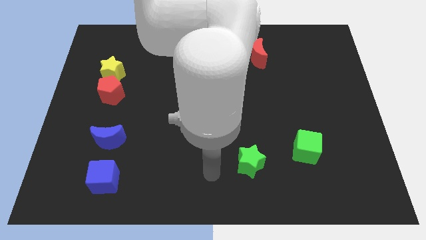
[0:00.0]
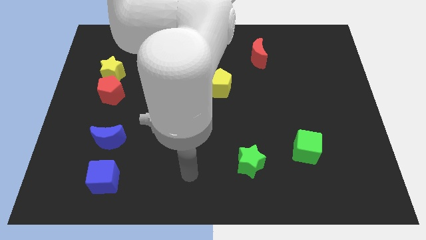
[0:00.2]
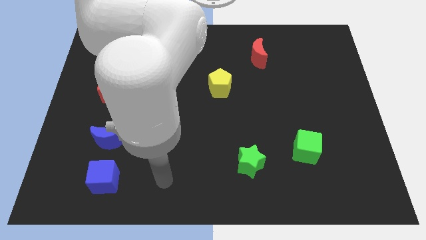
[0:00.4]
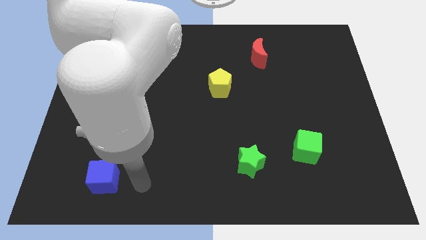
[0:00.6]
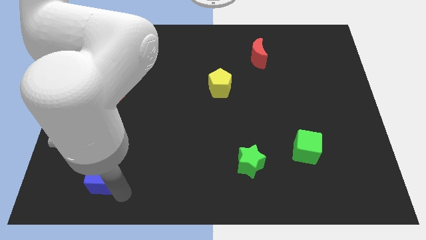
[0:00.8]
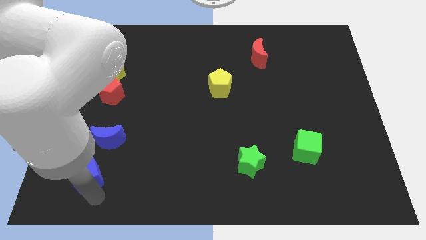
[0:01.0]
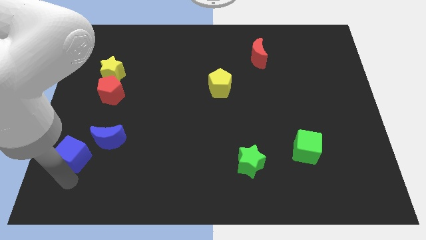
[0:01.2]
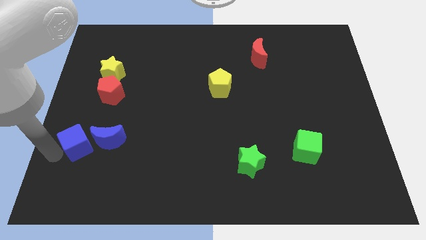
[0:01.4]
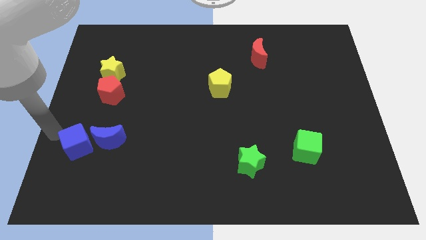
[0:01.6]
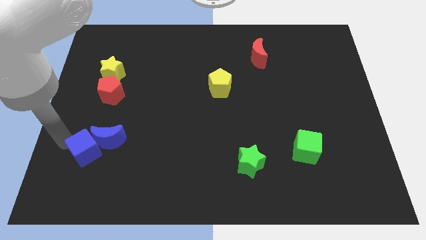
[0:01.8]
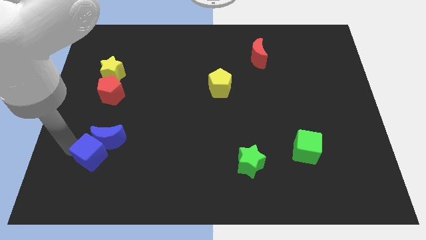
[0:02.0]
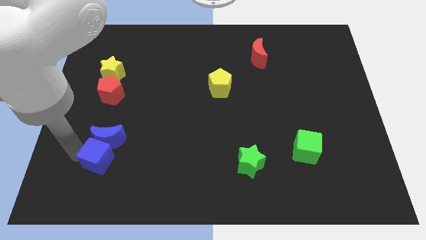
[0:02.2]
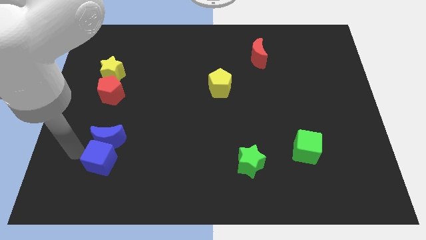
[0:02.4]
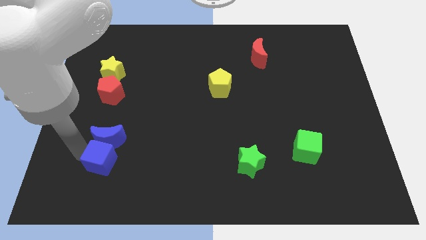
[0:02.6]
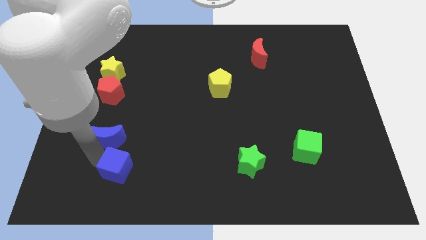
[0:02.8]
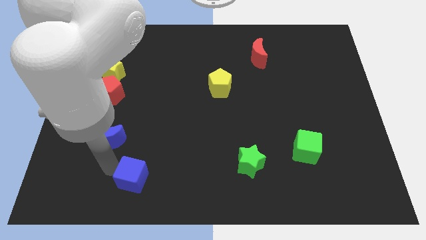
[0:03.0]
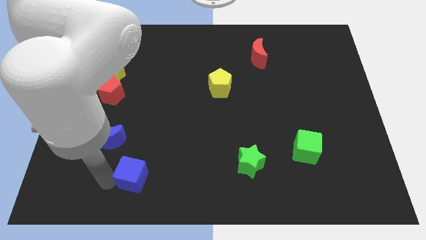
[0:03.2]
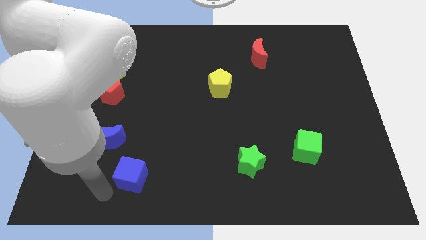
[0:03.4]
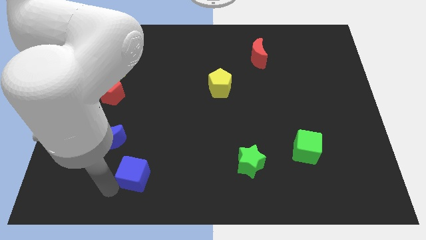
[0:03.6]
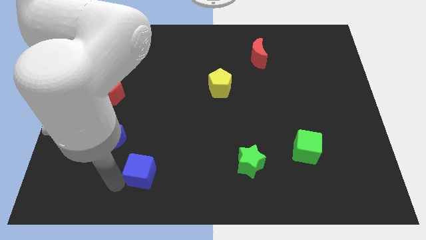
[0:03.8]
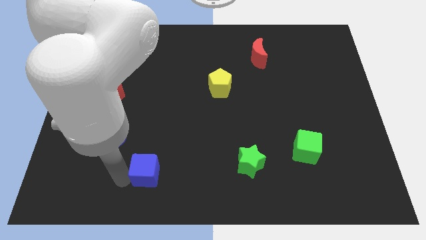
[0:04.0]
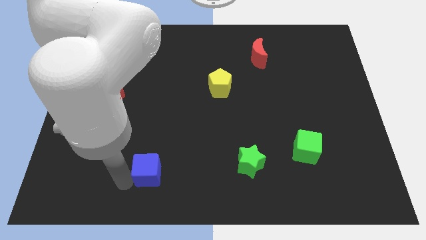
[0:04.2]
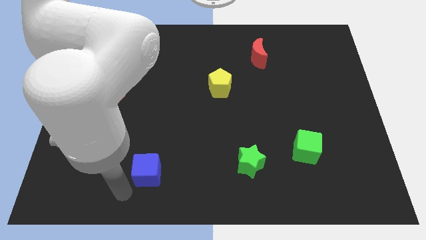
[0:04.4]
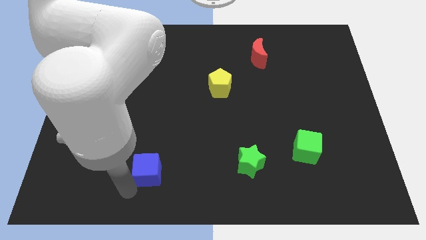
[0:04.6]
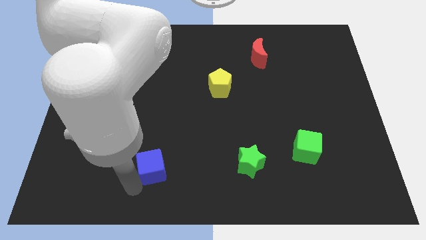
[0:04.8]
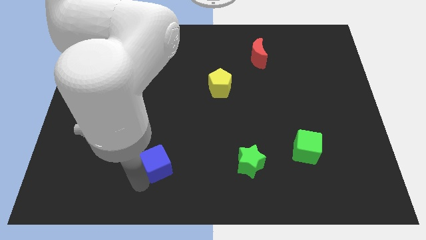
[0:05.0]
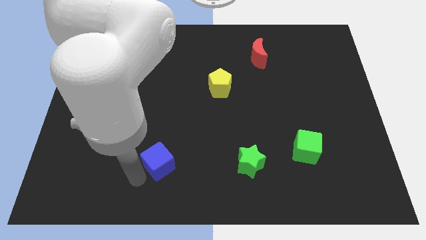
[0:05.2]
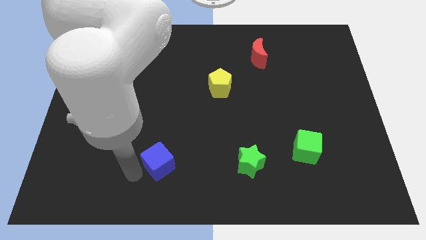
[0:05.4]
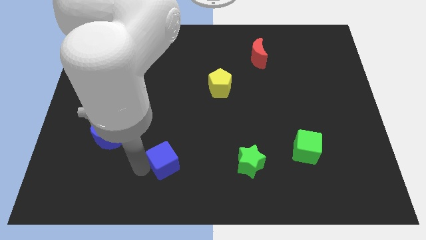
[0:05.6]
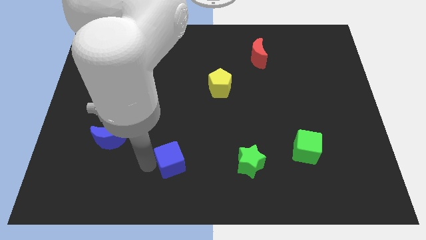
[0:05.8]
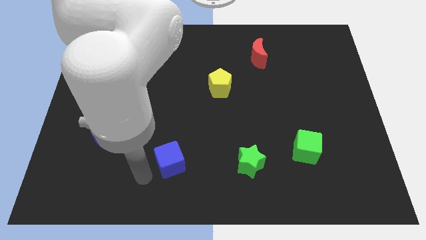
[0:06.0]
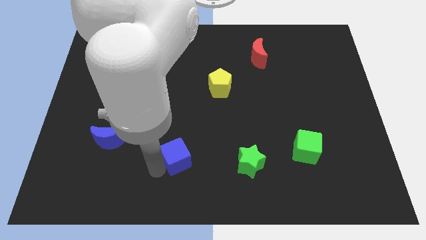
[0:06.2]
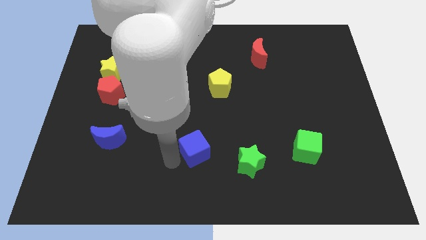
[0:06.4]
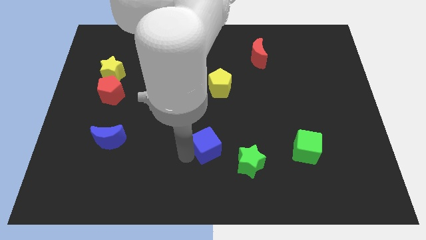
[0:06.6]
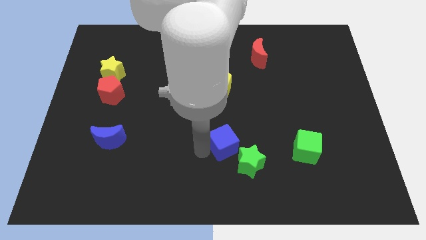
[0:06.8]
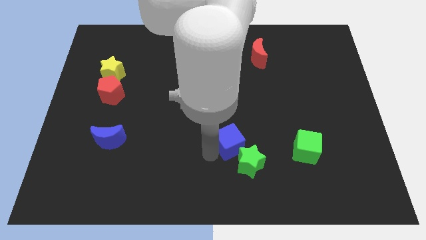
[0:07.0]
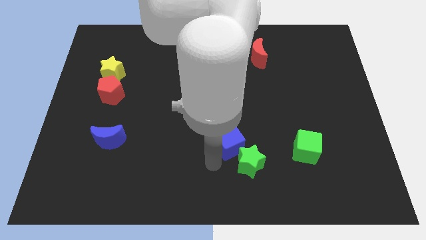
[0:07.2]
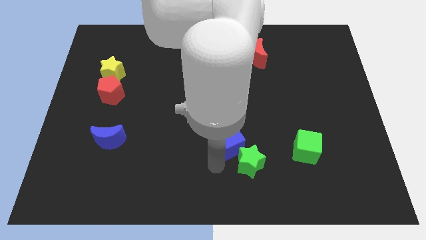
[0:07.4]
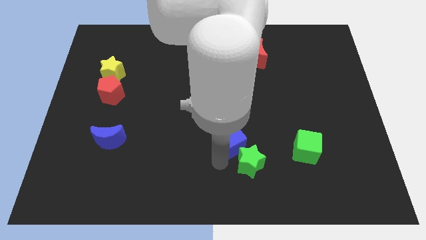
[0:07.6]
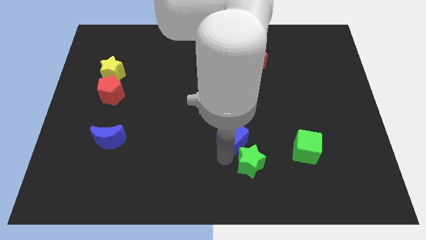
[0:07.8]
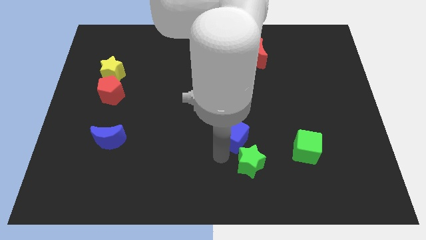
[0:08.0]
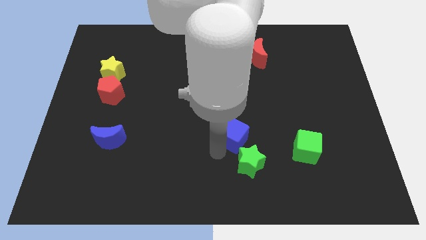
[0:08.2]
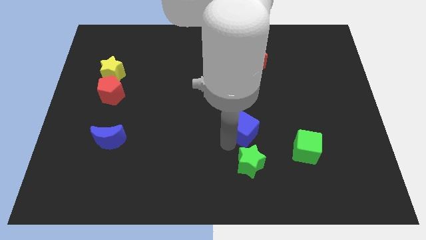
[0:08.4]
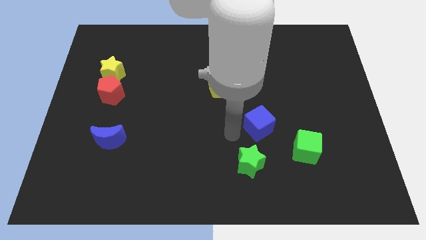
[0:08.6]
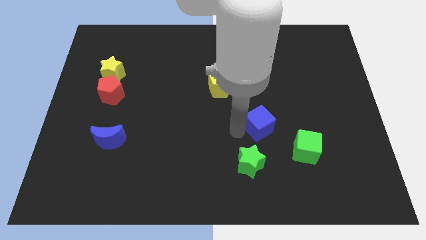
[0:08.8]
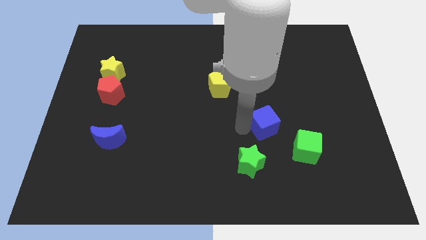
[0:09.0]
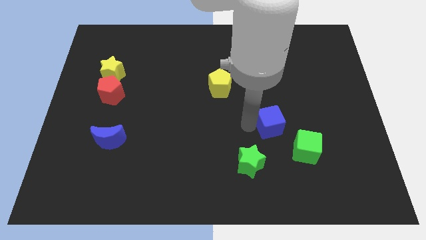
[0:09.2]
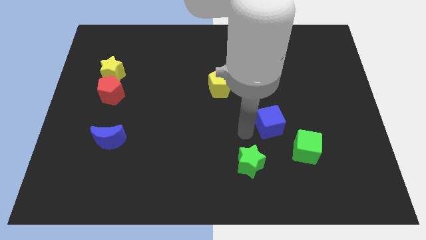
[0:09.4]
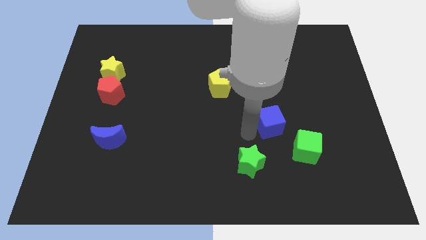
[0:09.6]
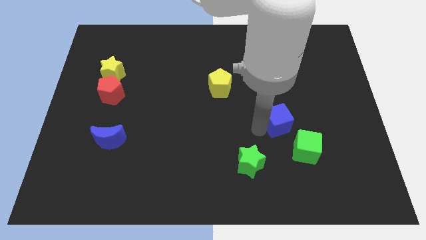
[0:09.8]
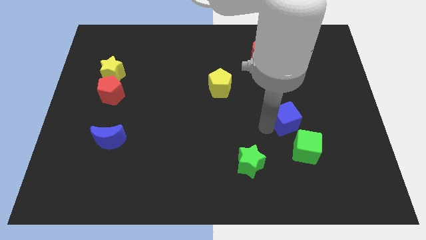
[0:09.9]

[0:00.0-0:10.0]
put the blue cube to the top of the green cube

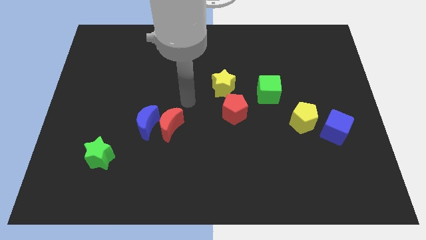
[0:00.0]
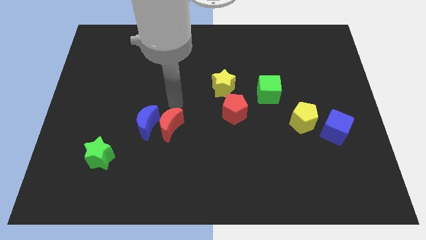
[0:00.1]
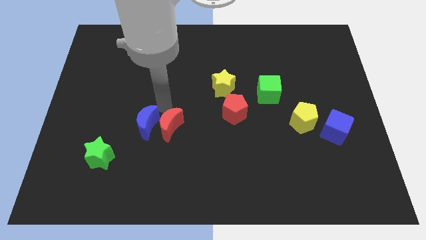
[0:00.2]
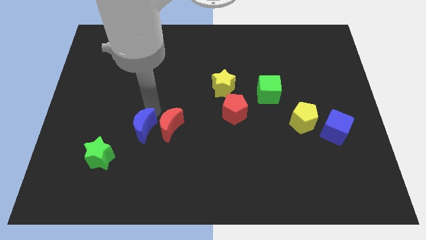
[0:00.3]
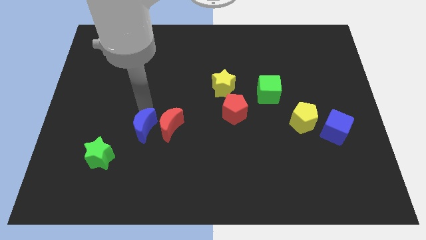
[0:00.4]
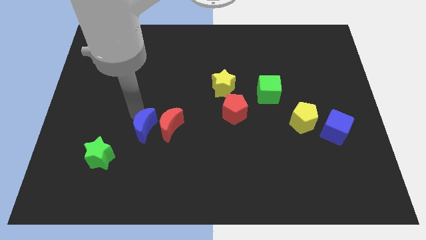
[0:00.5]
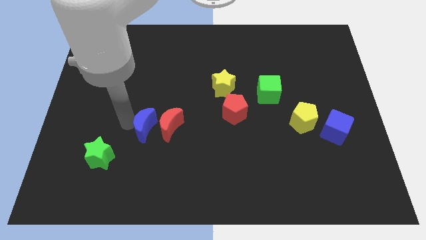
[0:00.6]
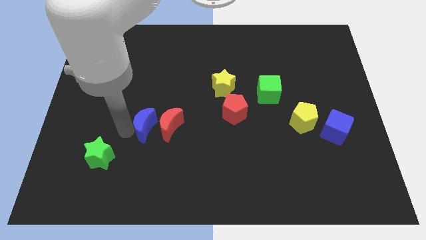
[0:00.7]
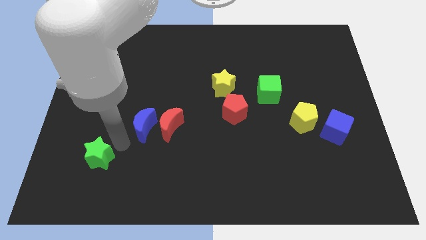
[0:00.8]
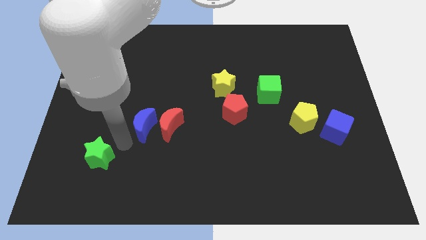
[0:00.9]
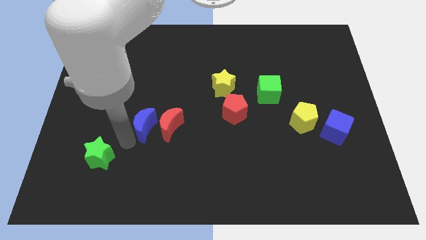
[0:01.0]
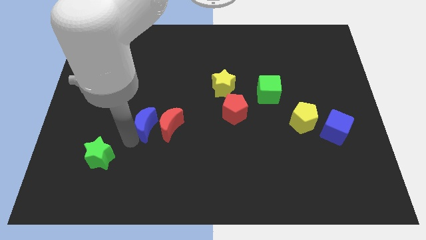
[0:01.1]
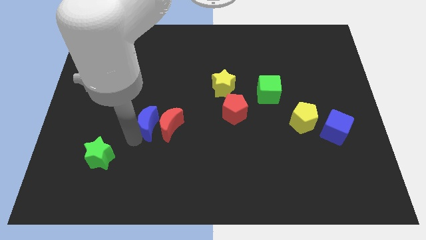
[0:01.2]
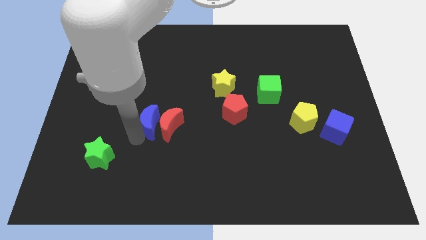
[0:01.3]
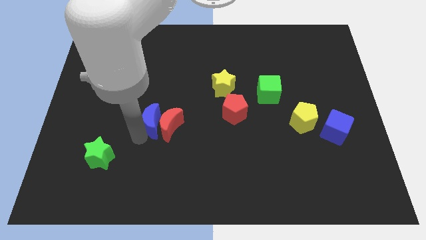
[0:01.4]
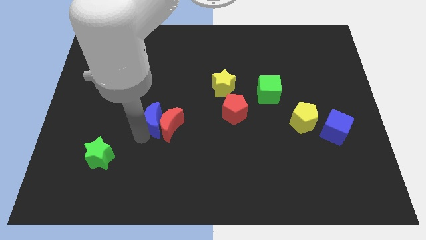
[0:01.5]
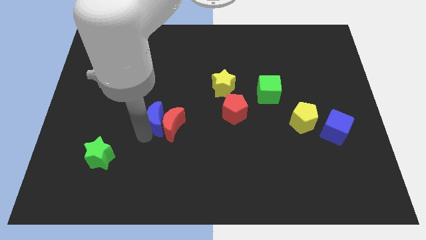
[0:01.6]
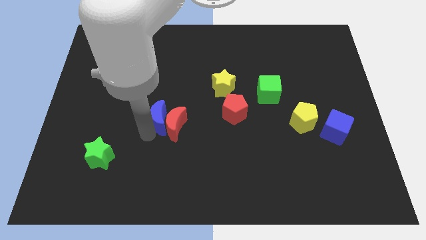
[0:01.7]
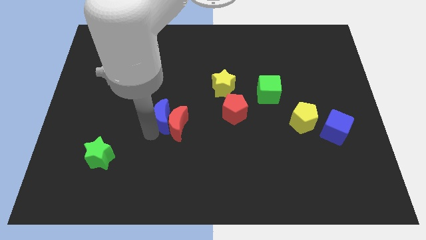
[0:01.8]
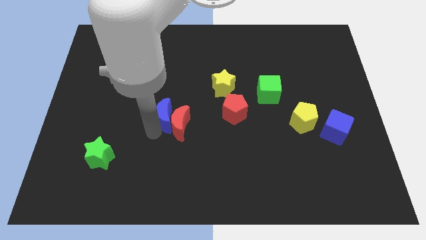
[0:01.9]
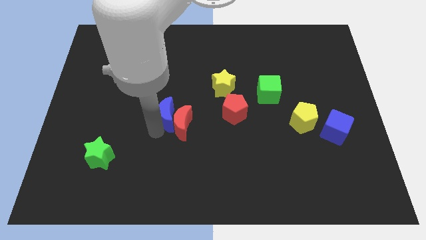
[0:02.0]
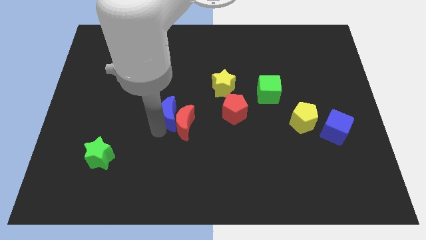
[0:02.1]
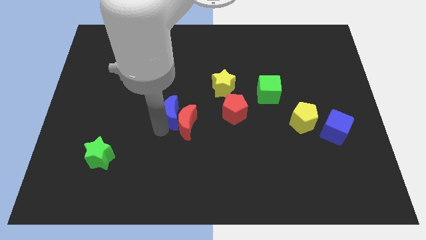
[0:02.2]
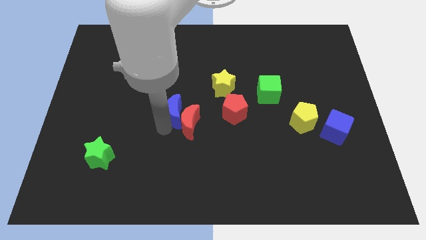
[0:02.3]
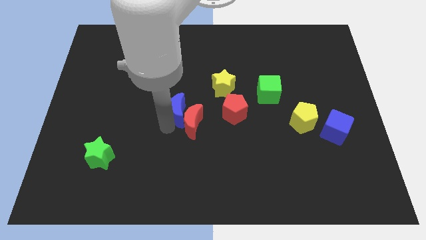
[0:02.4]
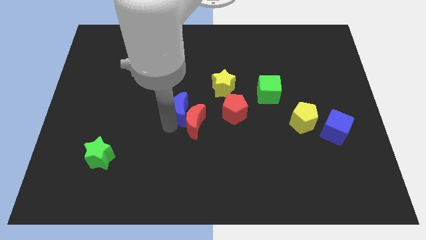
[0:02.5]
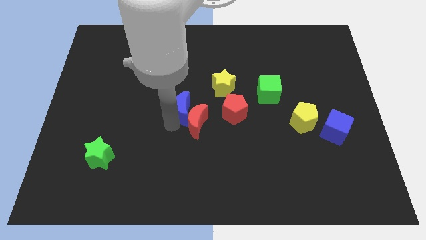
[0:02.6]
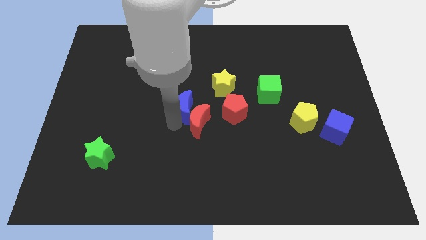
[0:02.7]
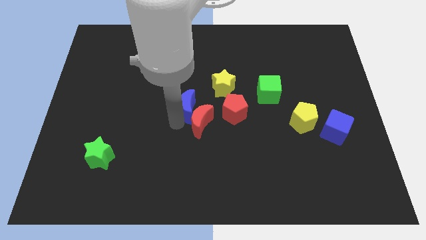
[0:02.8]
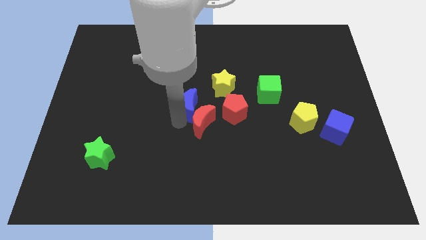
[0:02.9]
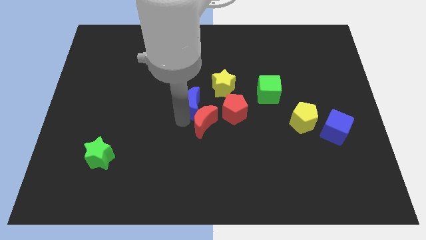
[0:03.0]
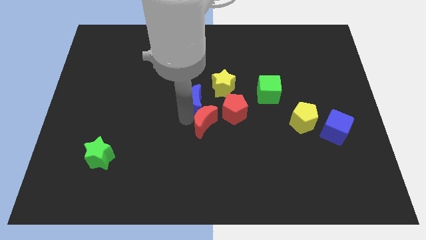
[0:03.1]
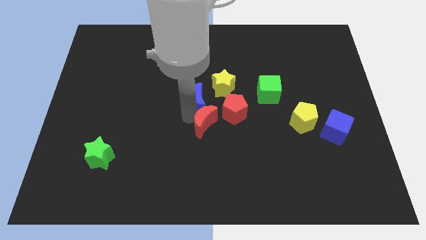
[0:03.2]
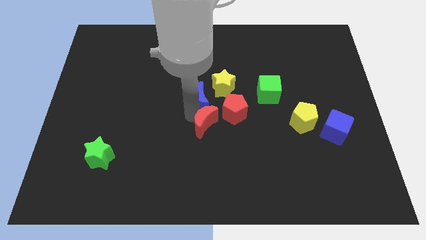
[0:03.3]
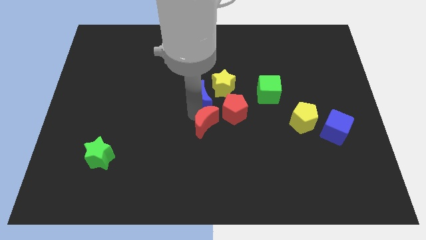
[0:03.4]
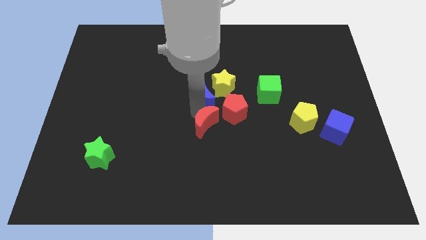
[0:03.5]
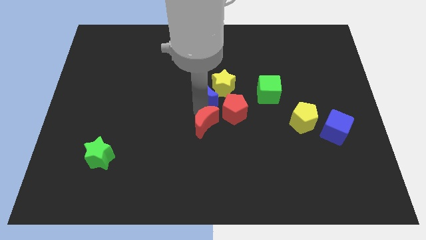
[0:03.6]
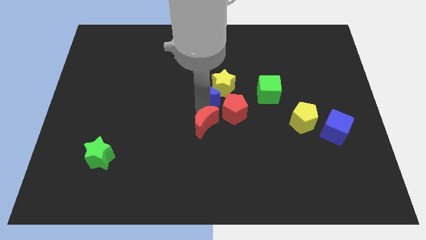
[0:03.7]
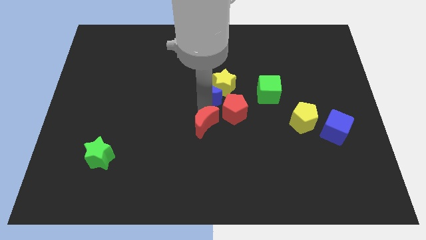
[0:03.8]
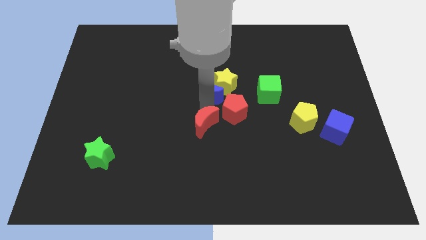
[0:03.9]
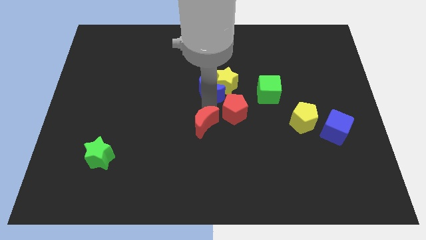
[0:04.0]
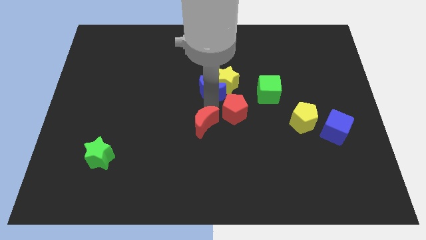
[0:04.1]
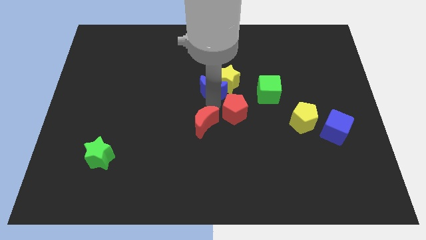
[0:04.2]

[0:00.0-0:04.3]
move the blue moon above the red pentagon
